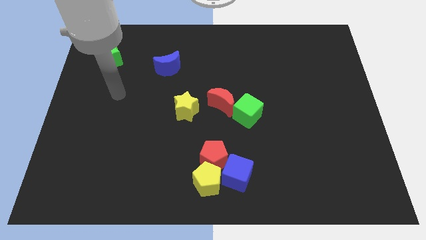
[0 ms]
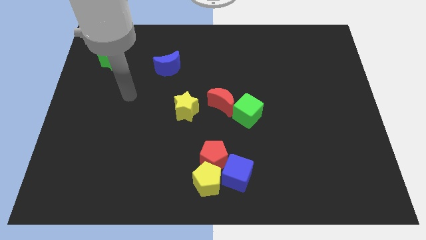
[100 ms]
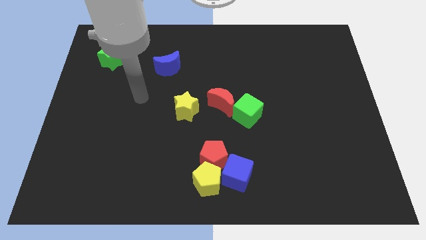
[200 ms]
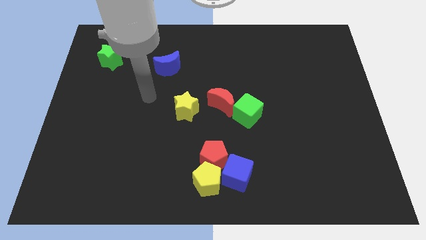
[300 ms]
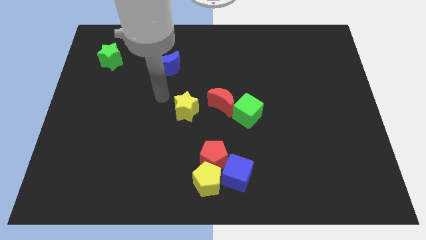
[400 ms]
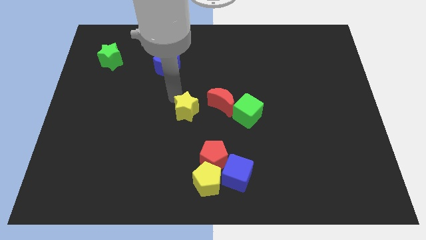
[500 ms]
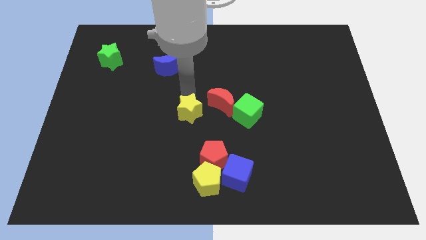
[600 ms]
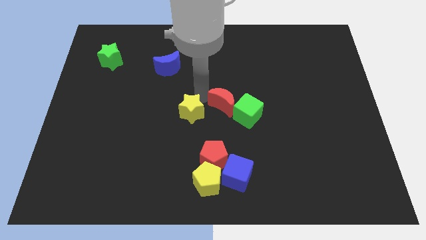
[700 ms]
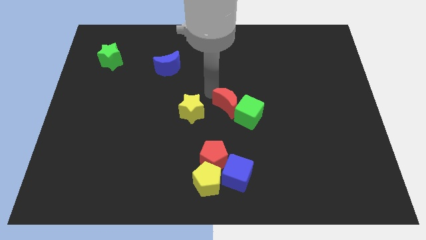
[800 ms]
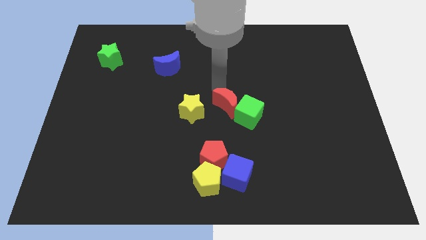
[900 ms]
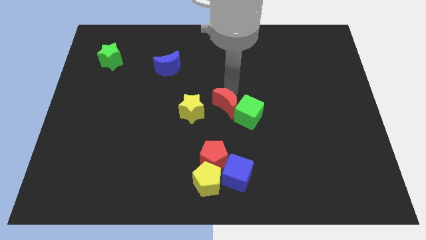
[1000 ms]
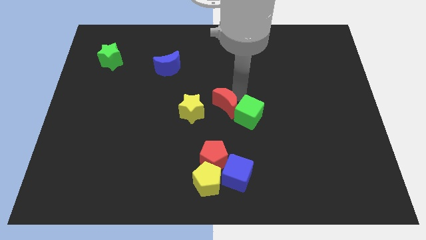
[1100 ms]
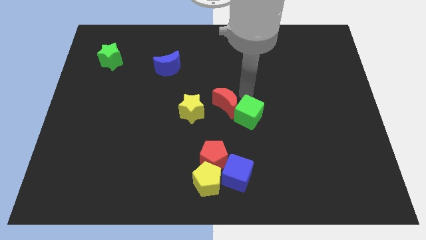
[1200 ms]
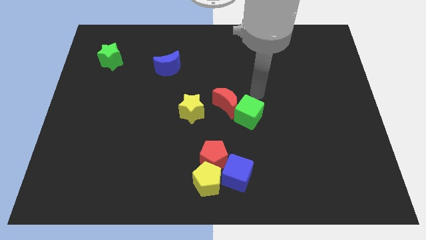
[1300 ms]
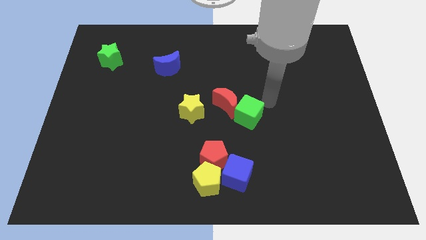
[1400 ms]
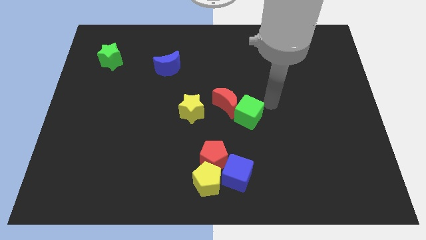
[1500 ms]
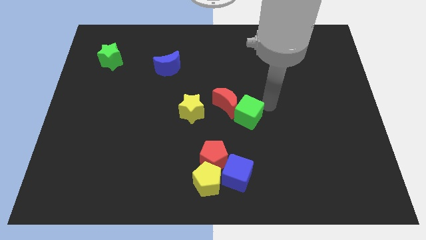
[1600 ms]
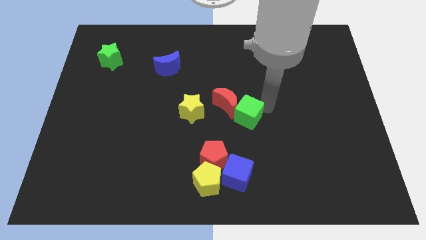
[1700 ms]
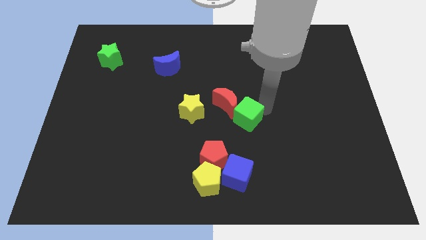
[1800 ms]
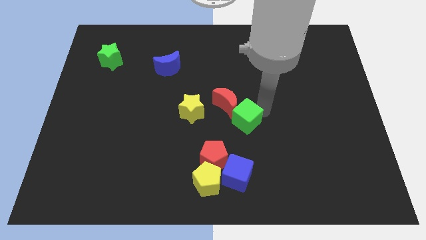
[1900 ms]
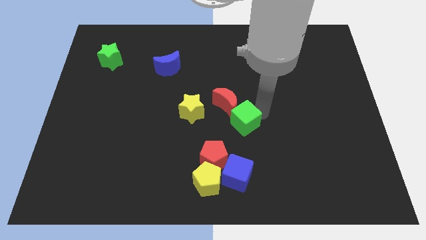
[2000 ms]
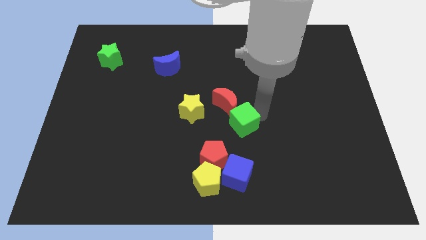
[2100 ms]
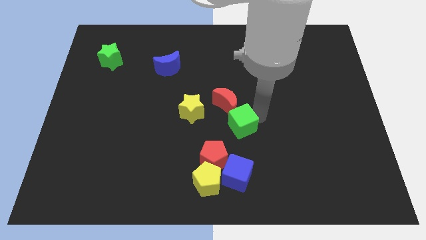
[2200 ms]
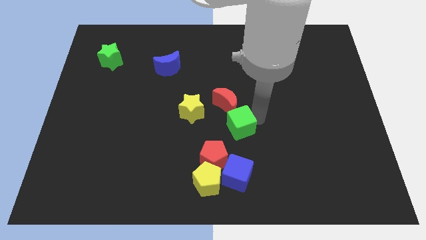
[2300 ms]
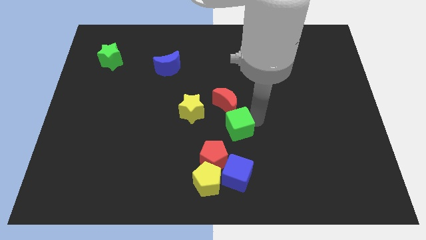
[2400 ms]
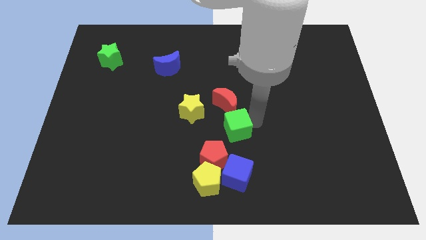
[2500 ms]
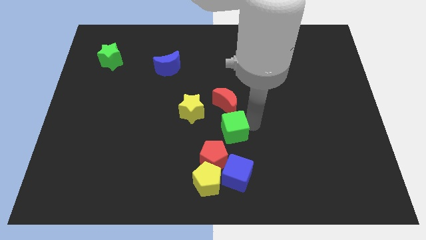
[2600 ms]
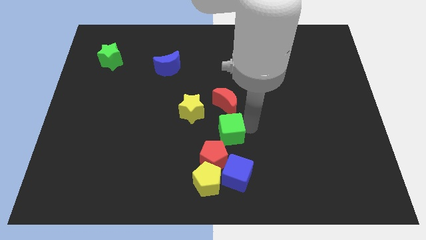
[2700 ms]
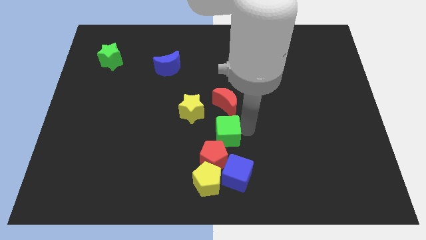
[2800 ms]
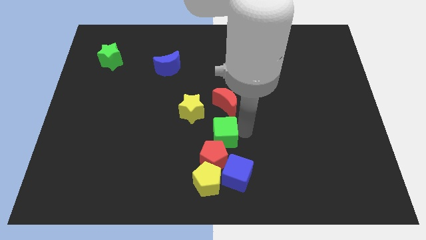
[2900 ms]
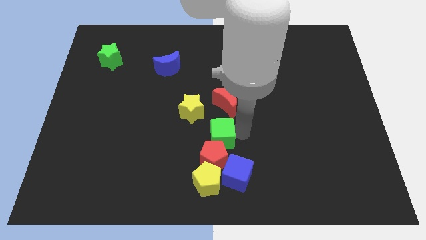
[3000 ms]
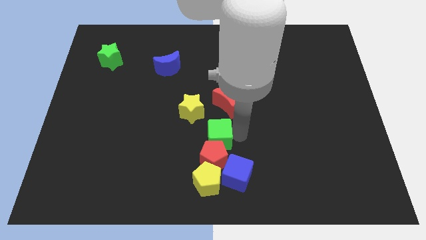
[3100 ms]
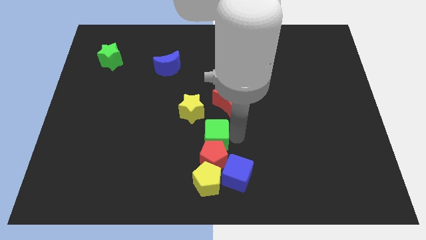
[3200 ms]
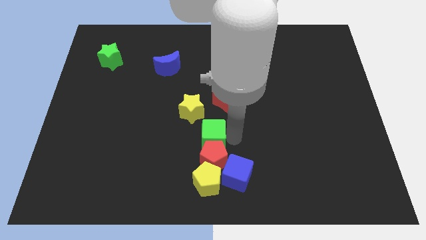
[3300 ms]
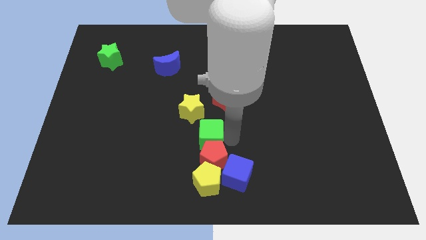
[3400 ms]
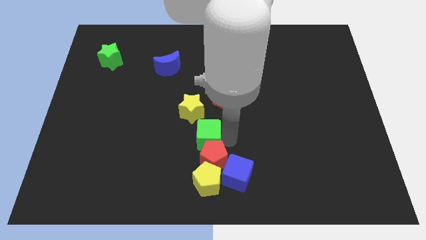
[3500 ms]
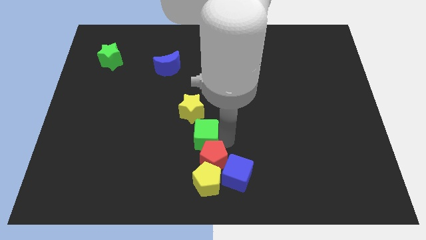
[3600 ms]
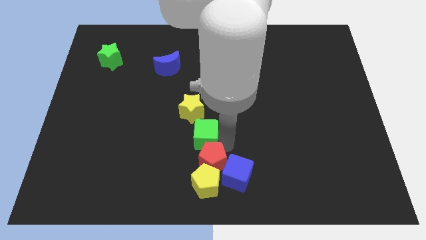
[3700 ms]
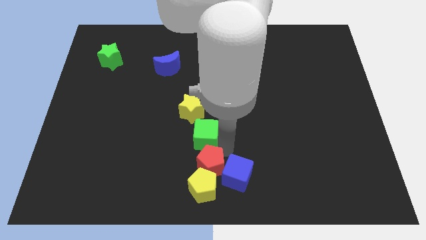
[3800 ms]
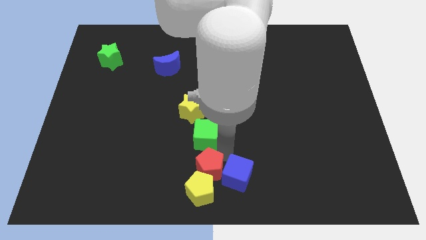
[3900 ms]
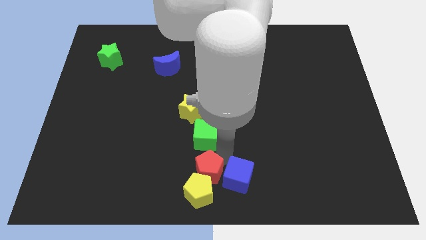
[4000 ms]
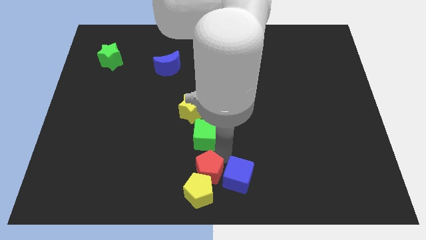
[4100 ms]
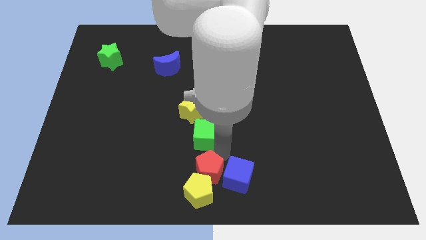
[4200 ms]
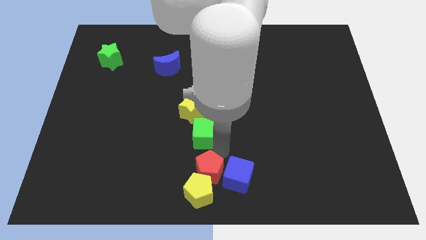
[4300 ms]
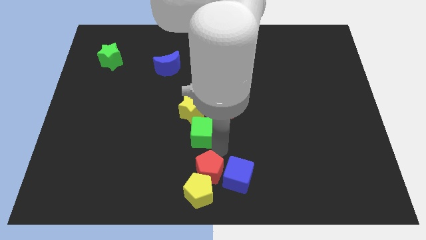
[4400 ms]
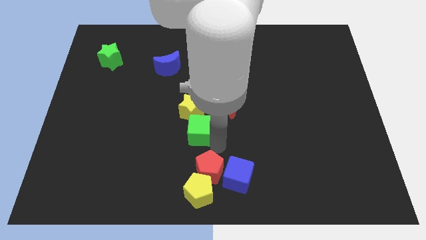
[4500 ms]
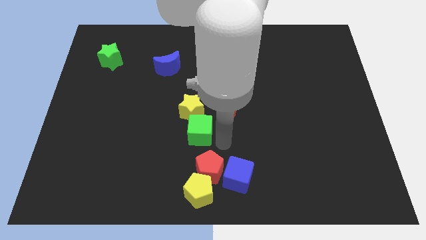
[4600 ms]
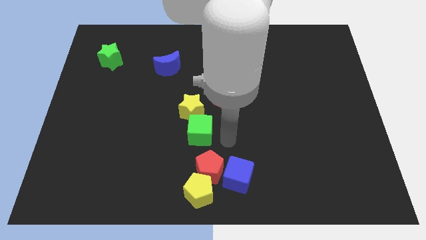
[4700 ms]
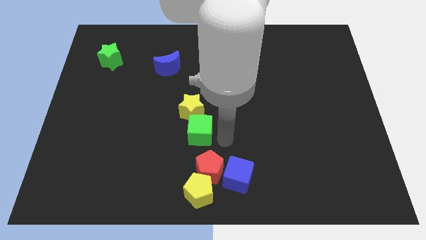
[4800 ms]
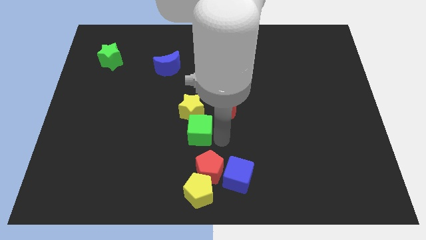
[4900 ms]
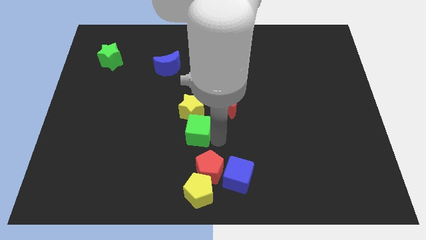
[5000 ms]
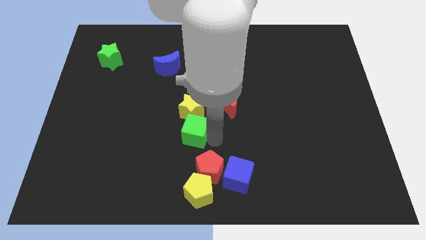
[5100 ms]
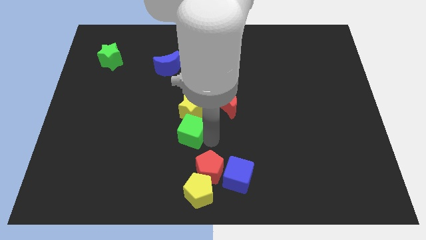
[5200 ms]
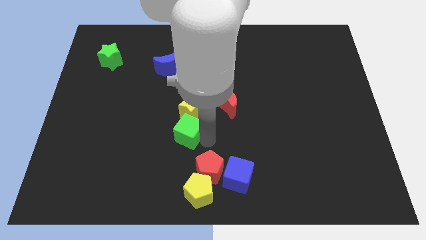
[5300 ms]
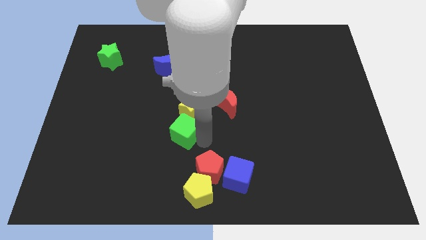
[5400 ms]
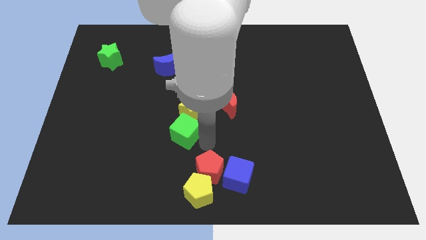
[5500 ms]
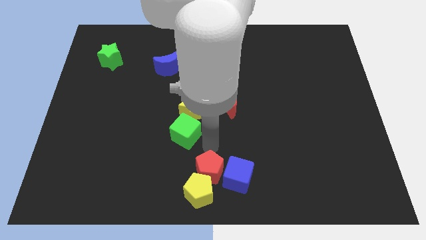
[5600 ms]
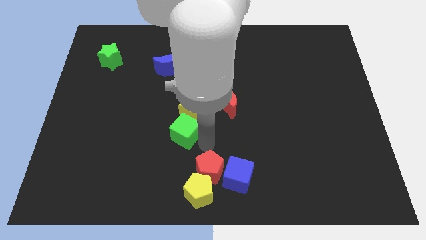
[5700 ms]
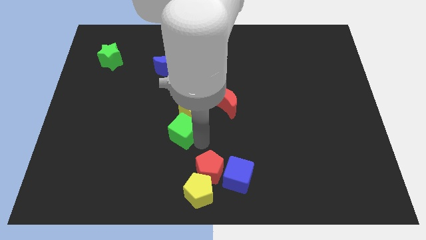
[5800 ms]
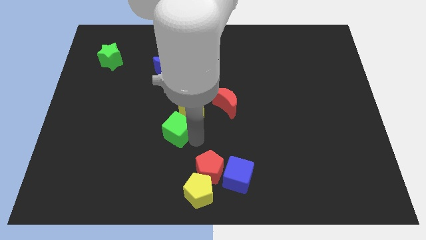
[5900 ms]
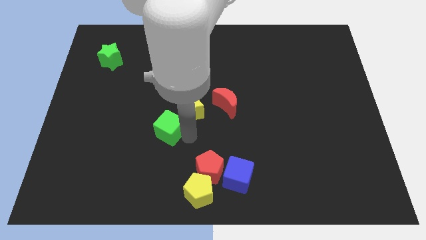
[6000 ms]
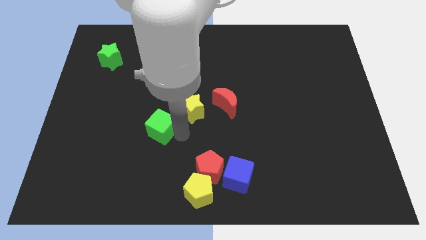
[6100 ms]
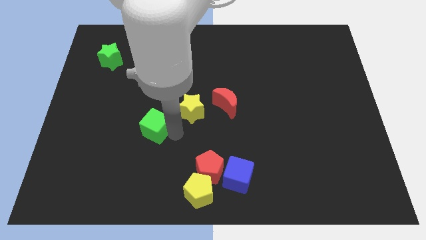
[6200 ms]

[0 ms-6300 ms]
move the green cube to the left

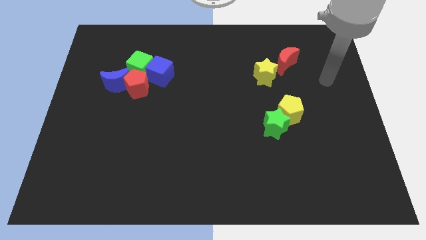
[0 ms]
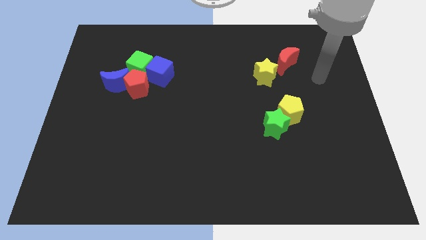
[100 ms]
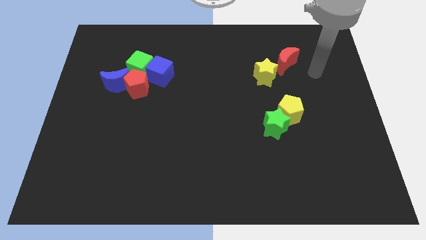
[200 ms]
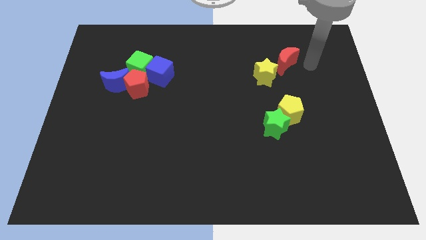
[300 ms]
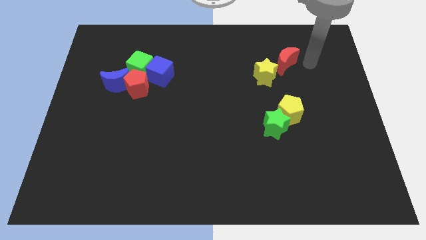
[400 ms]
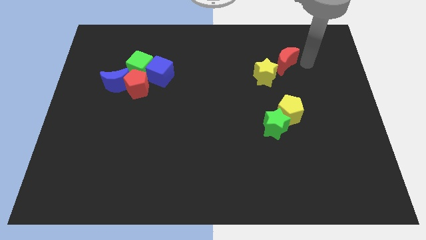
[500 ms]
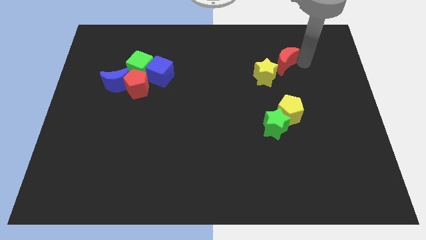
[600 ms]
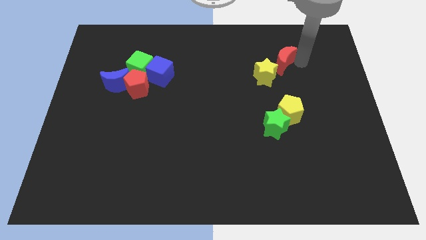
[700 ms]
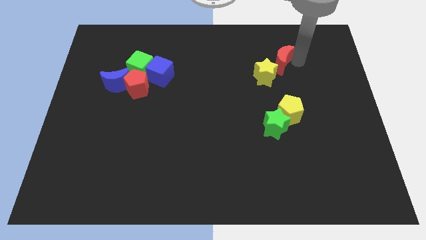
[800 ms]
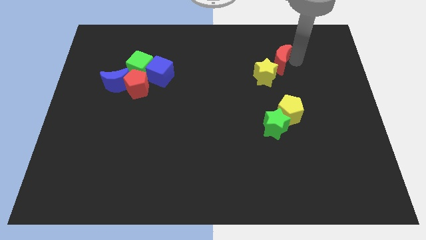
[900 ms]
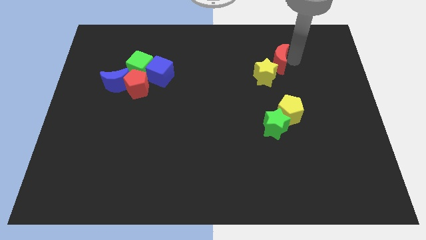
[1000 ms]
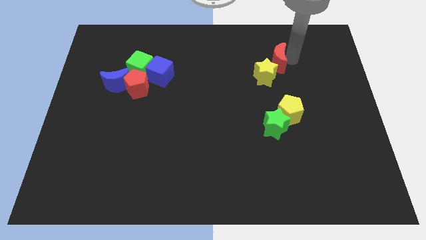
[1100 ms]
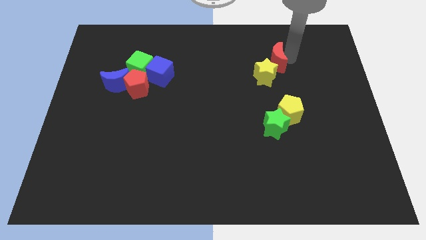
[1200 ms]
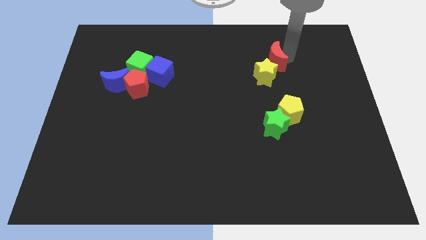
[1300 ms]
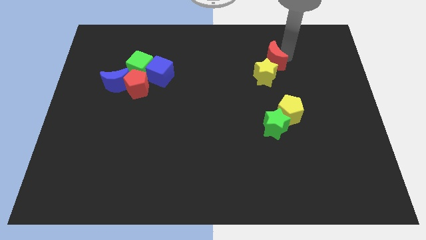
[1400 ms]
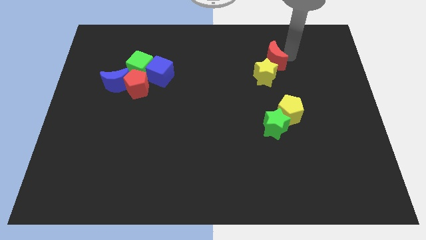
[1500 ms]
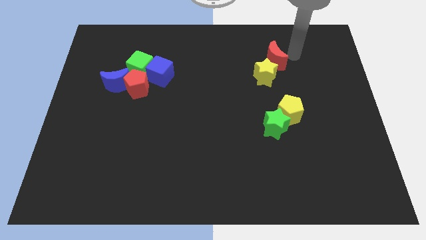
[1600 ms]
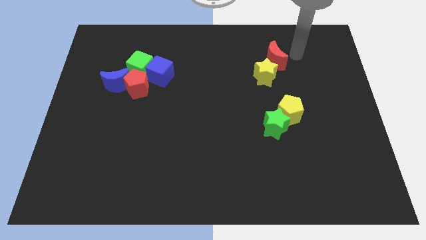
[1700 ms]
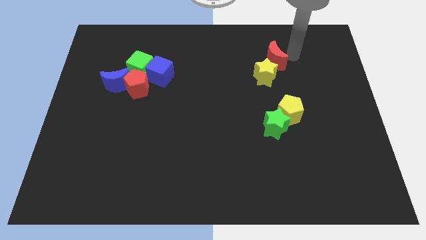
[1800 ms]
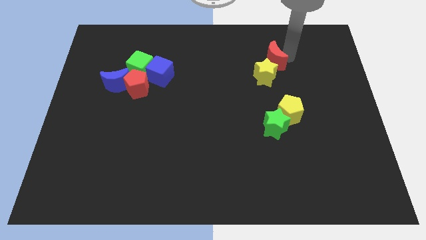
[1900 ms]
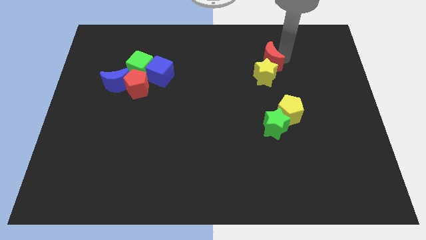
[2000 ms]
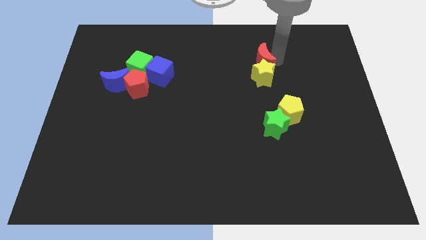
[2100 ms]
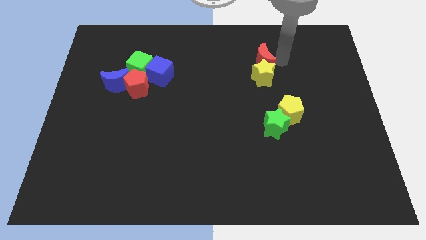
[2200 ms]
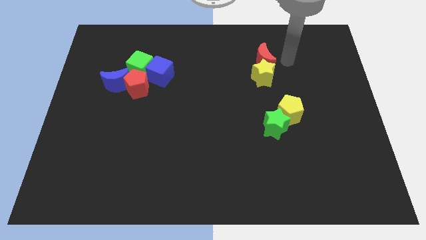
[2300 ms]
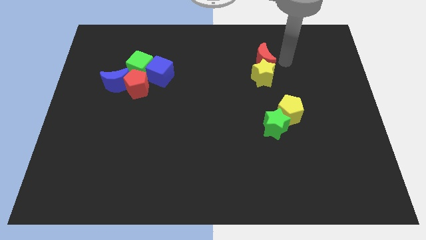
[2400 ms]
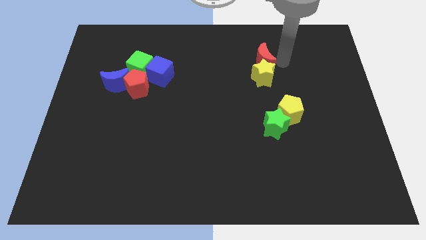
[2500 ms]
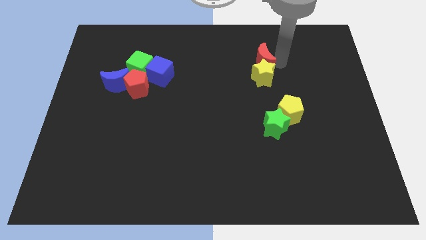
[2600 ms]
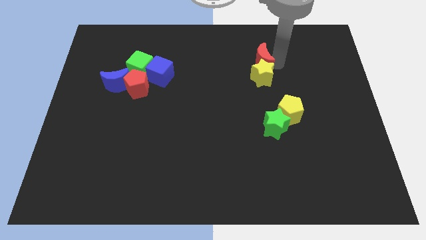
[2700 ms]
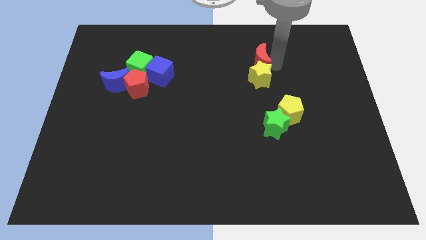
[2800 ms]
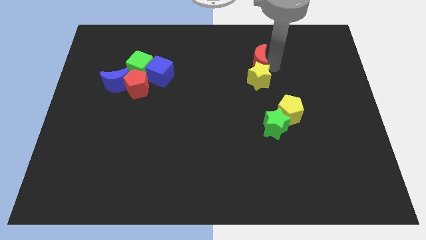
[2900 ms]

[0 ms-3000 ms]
move the red moon left somewhat
